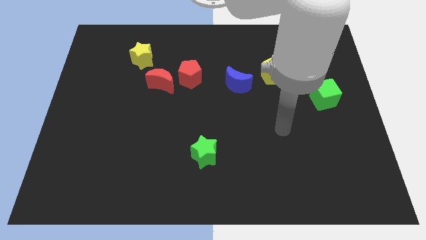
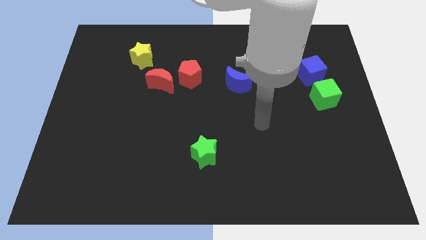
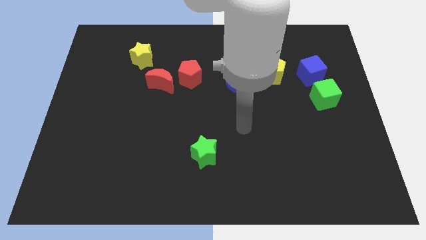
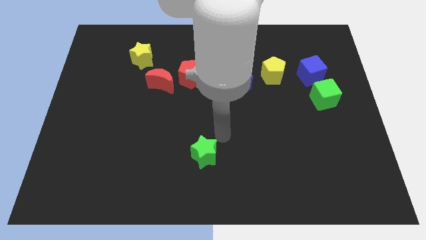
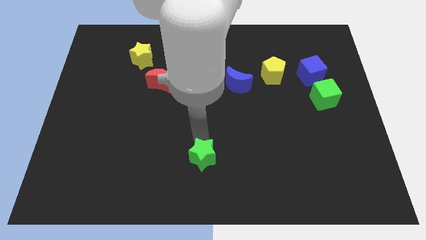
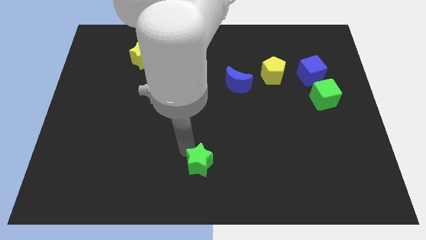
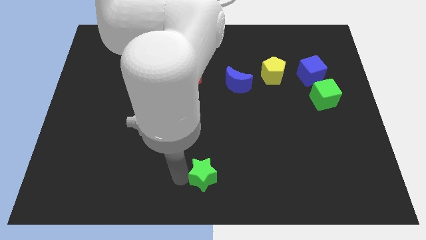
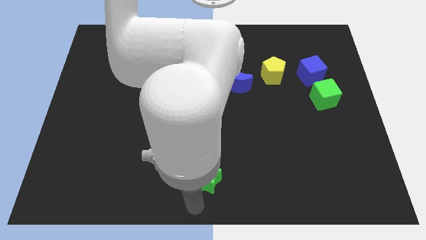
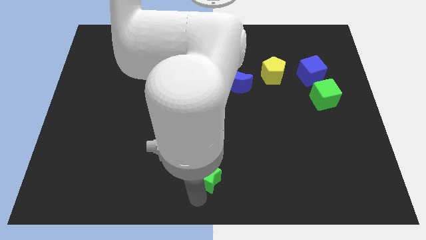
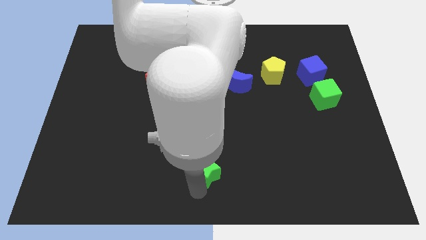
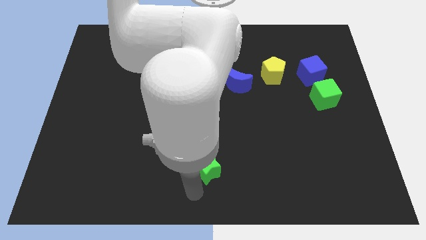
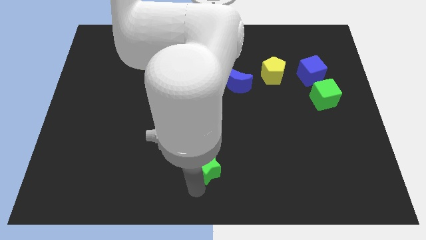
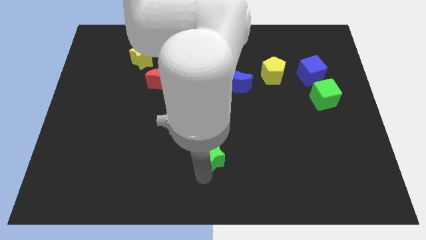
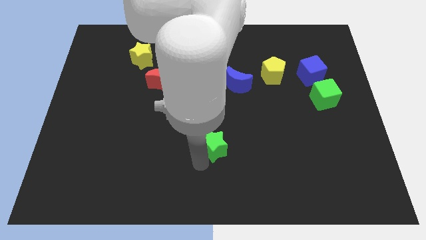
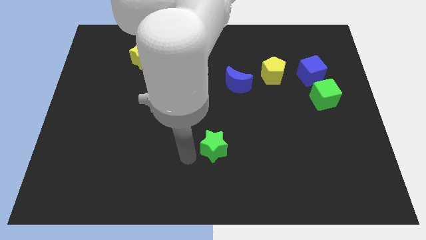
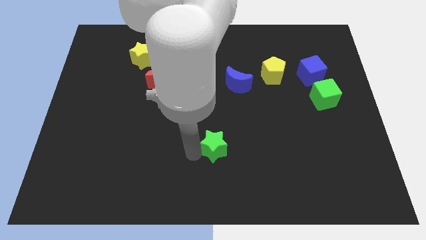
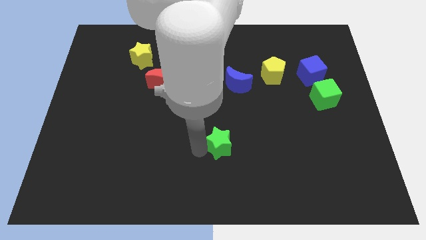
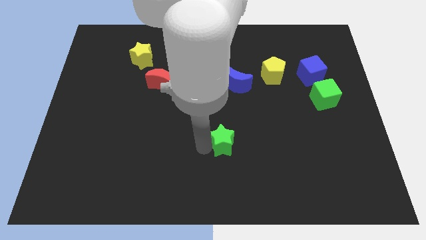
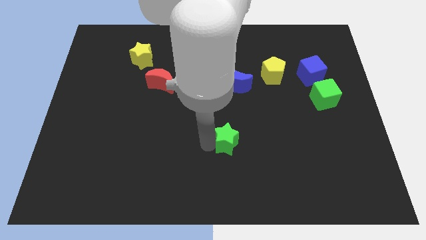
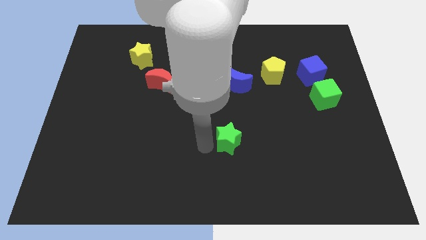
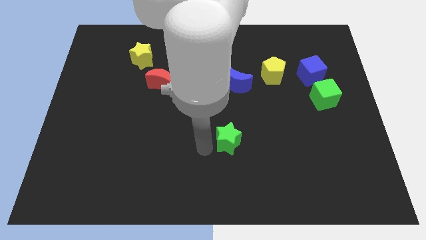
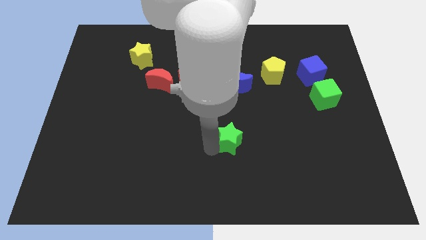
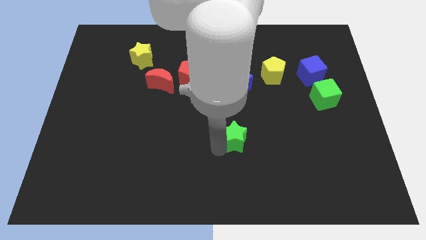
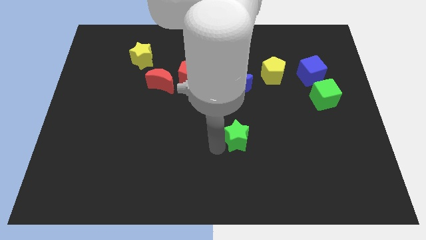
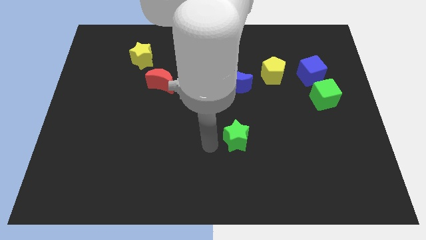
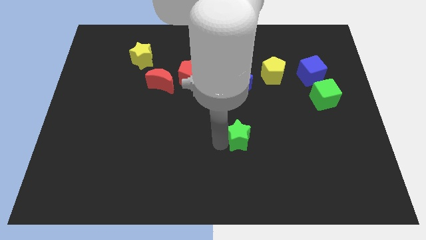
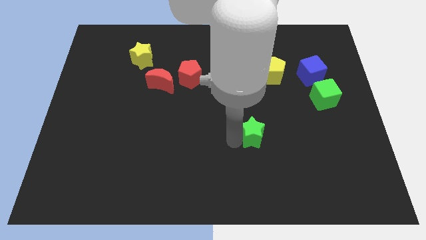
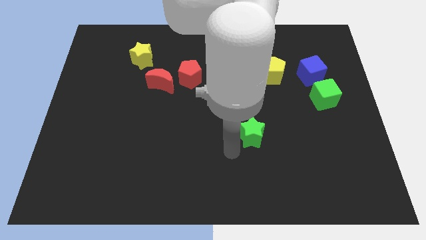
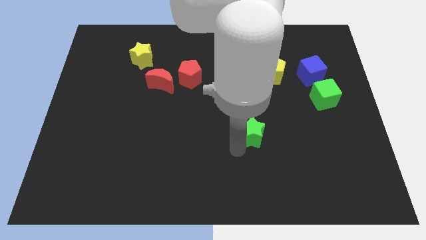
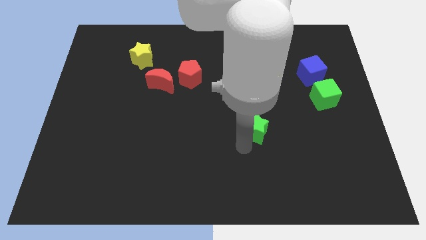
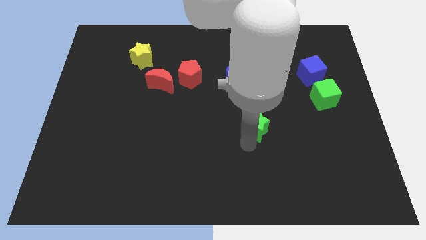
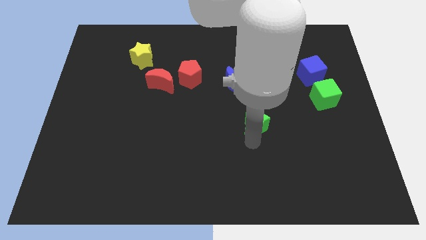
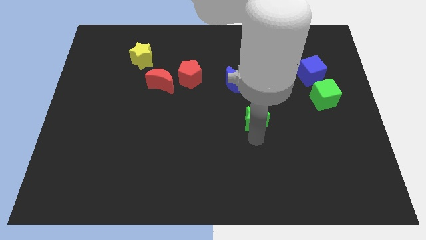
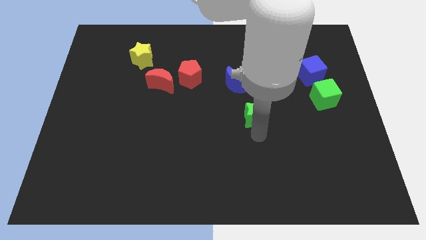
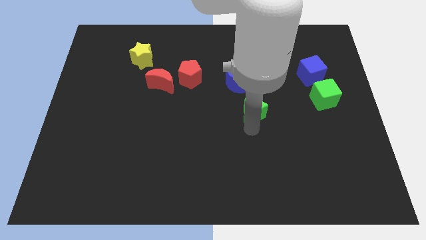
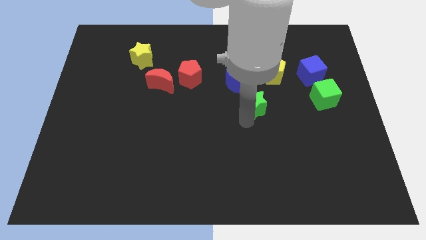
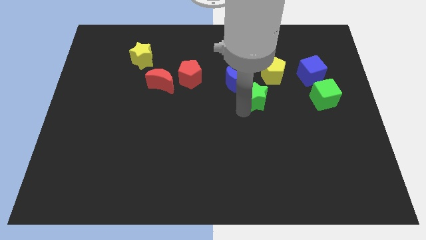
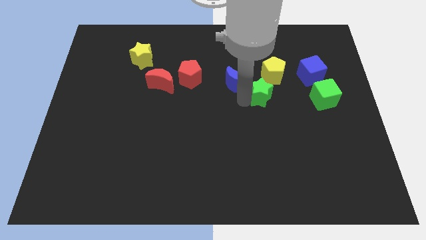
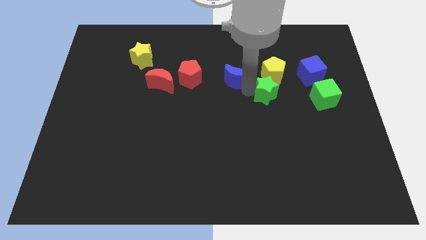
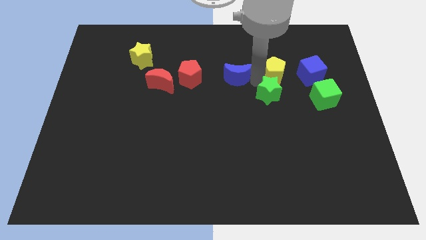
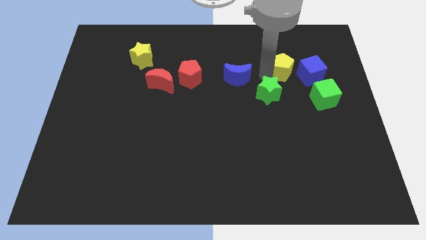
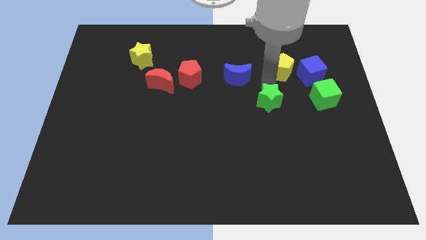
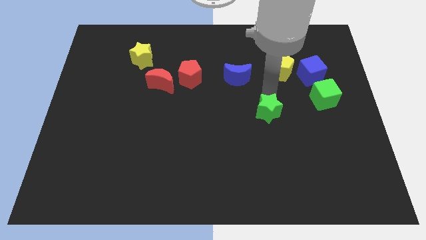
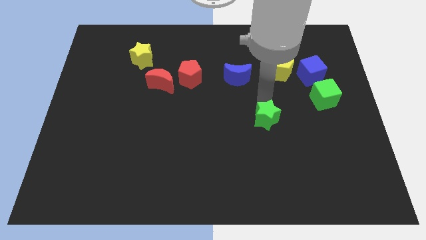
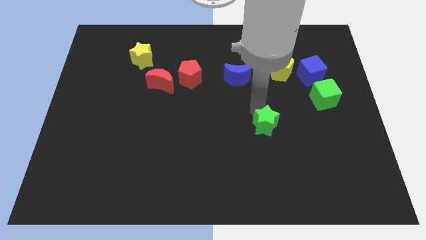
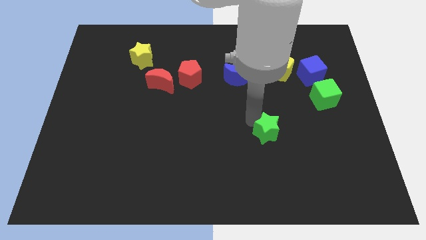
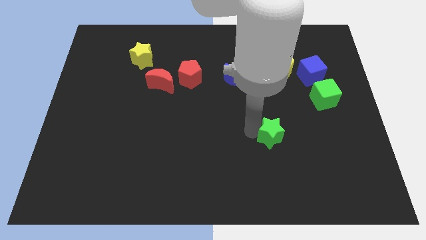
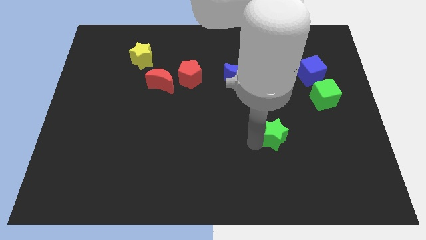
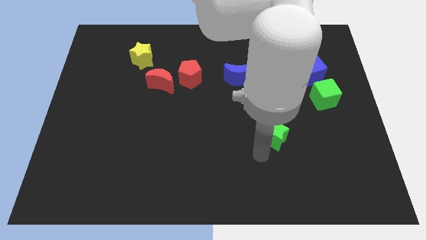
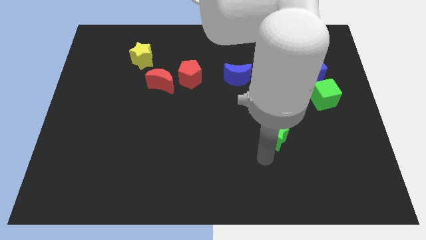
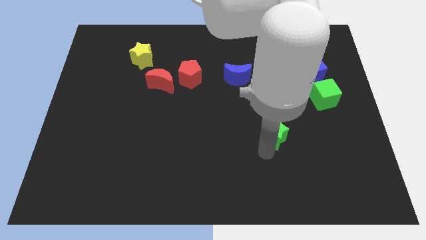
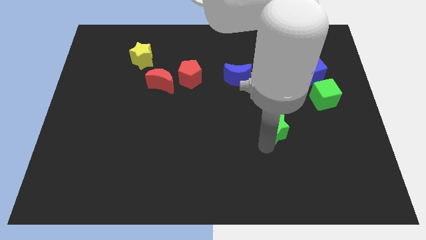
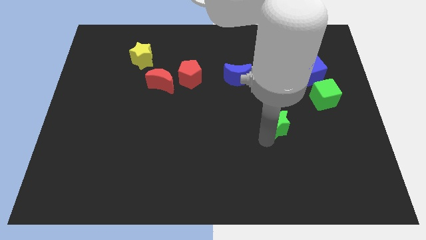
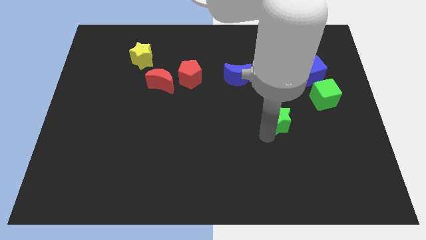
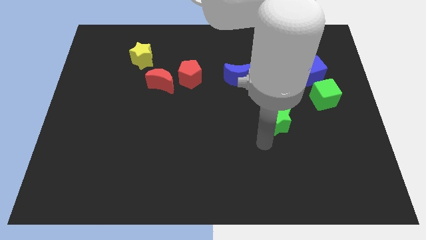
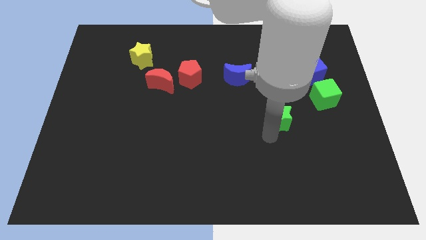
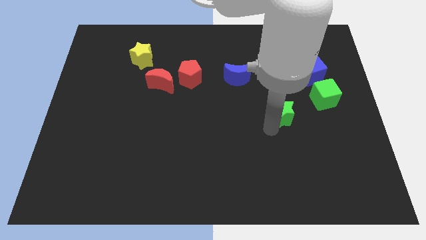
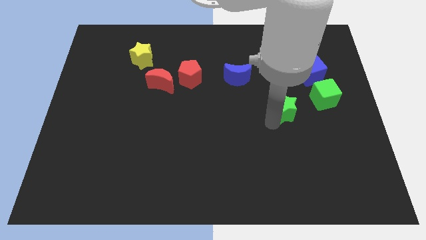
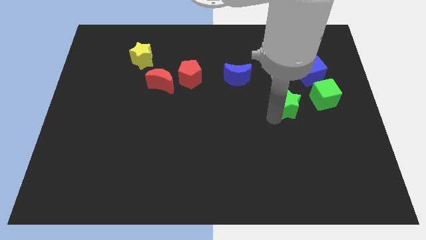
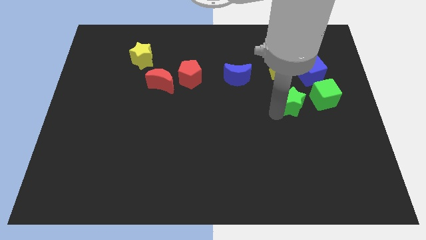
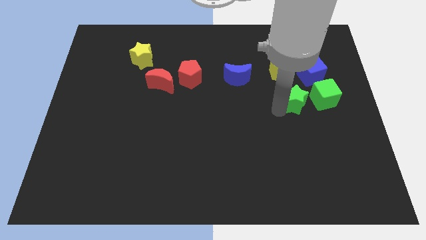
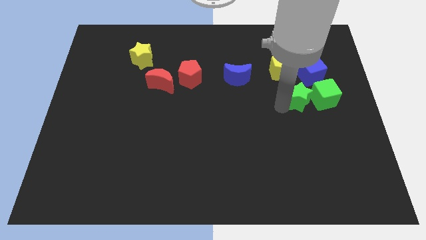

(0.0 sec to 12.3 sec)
push the green star towards the green cube

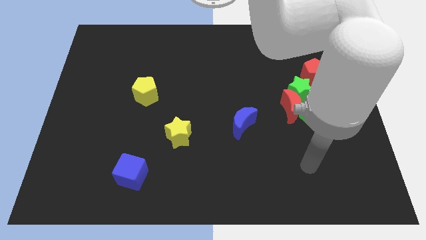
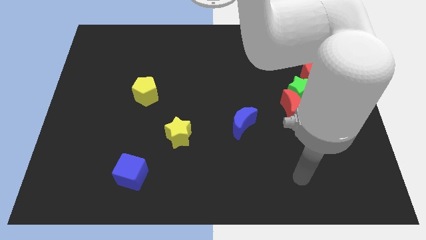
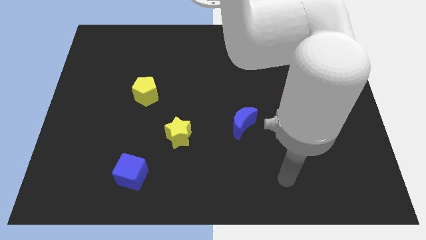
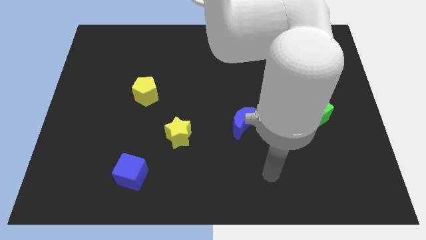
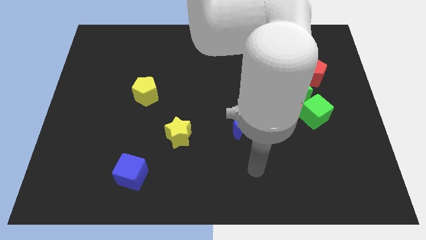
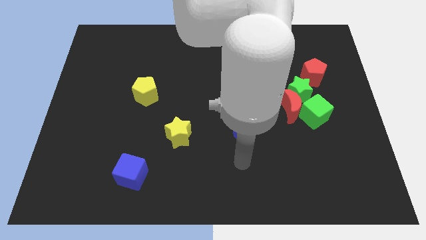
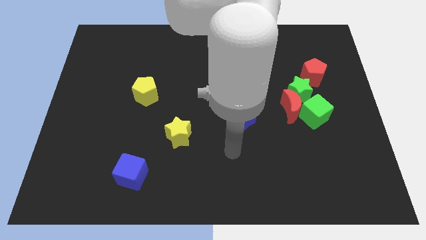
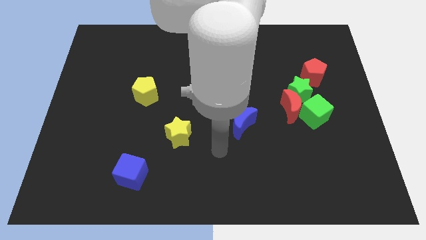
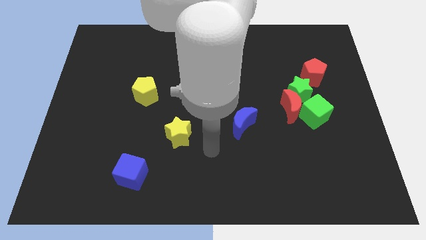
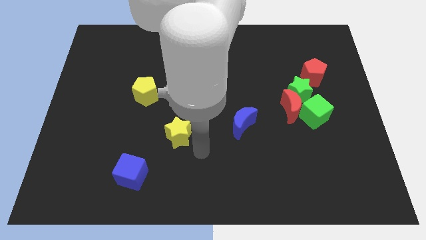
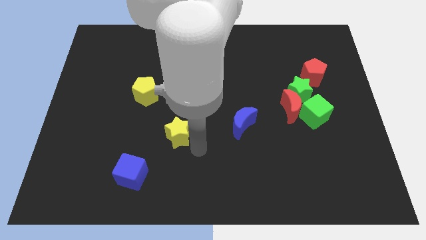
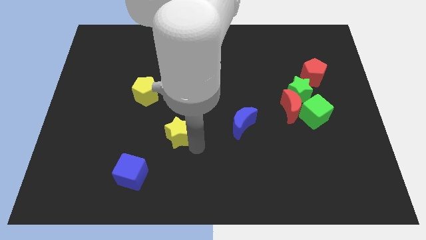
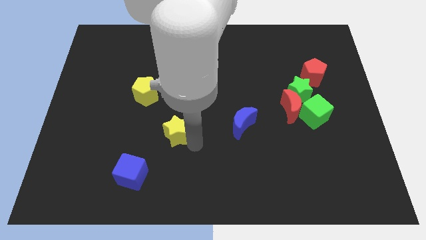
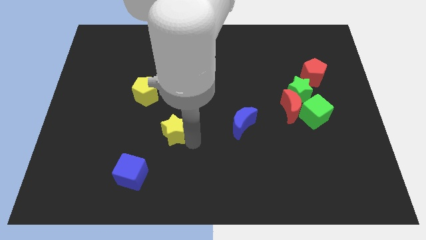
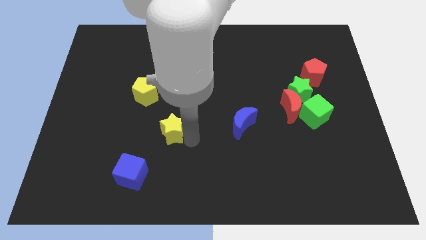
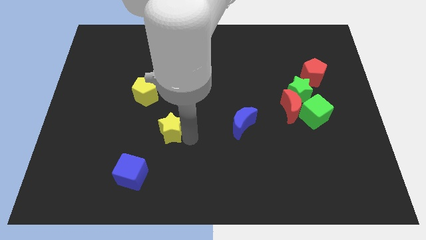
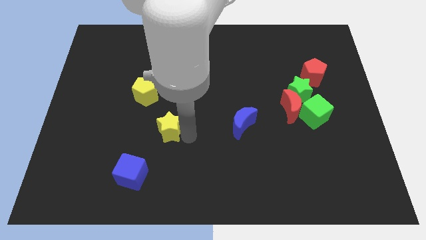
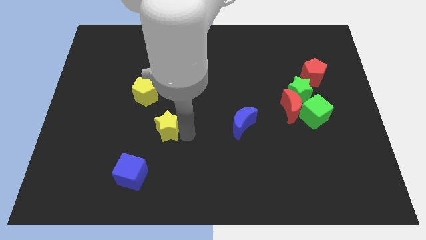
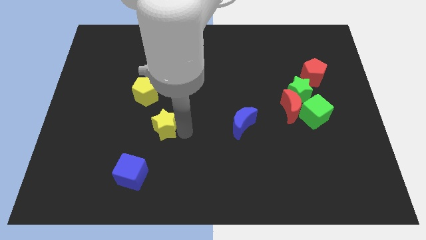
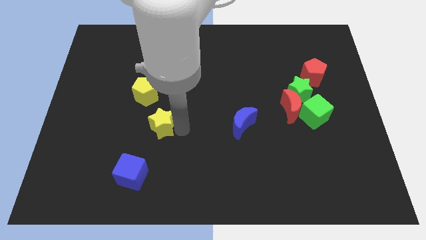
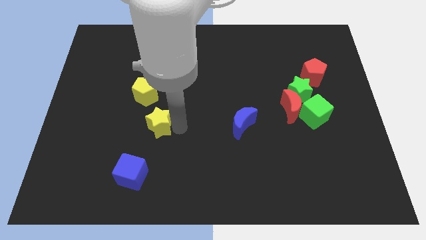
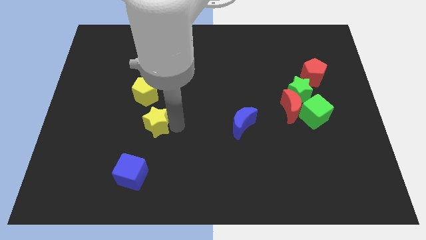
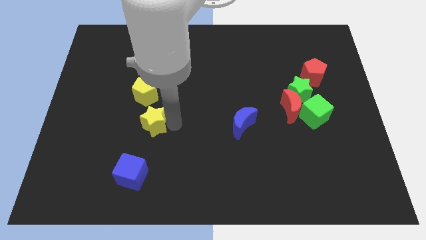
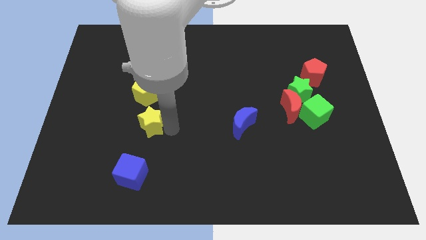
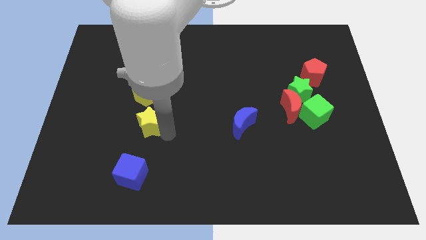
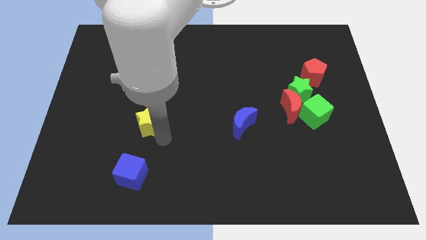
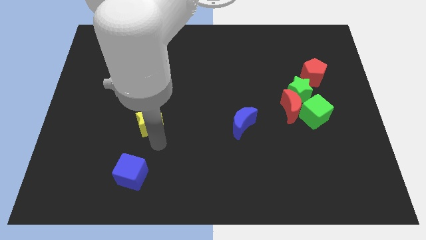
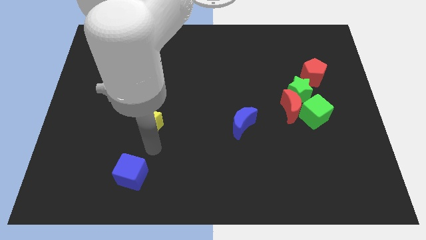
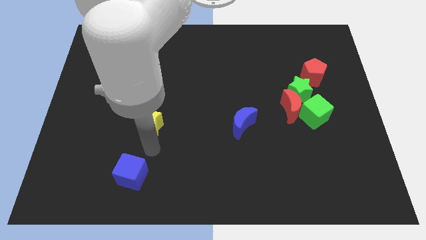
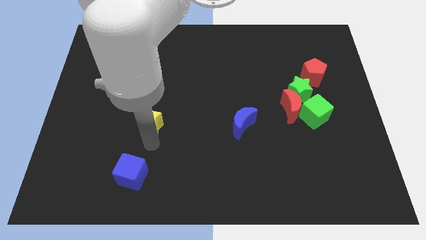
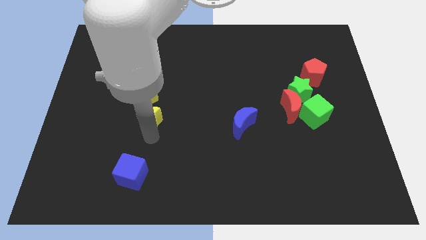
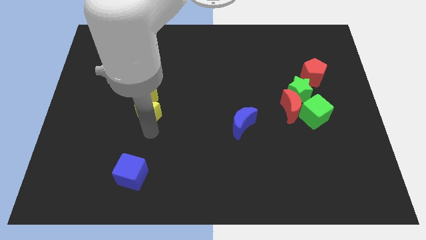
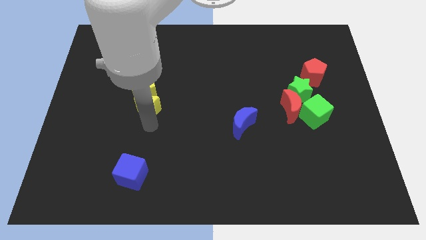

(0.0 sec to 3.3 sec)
slide the yellow star close to the yellow pentagon
